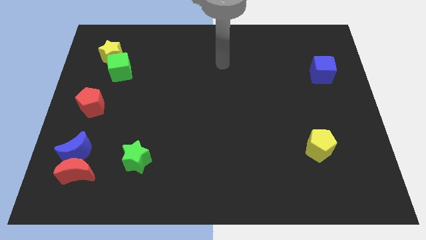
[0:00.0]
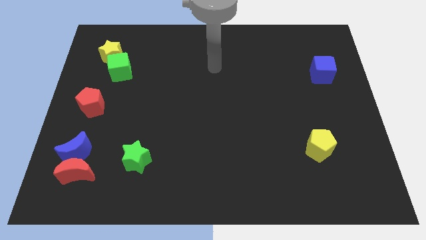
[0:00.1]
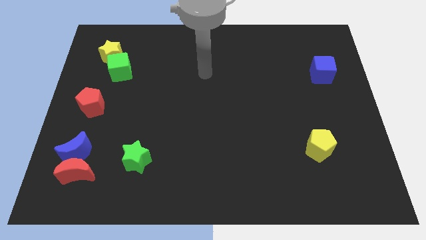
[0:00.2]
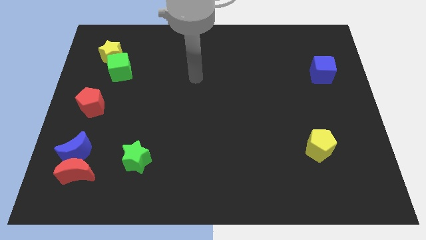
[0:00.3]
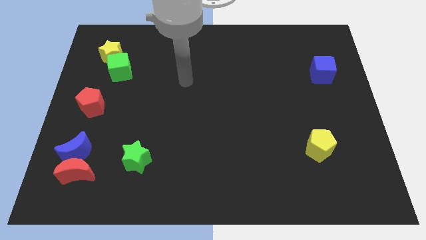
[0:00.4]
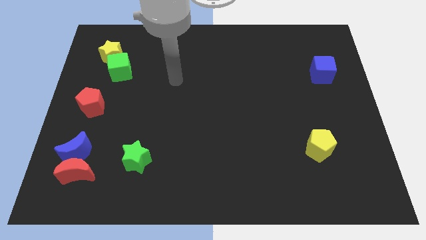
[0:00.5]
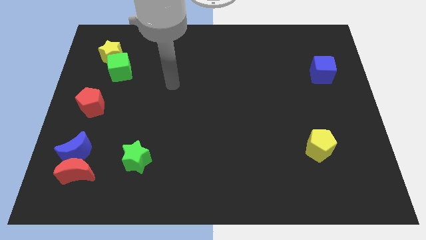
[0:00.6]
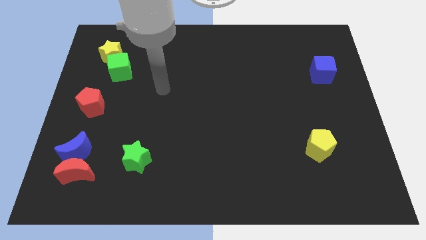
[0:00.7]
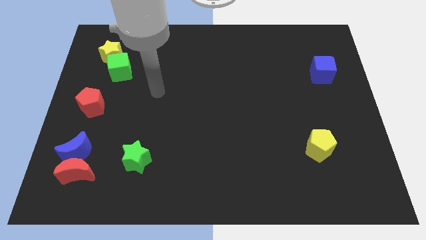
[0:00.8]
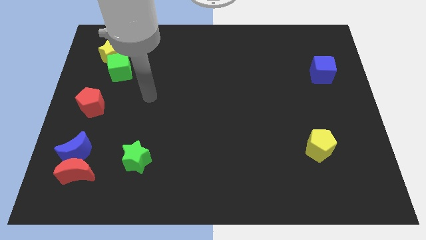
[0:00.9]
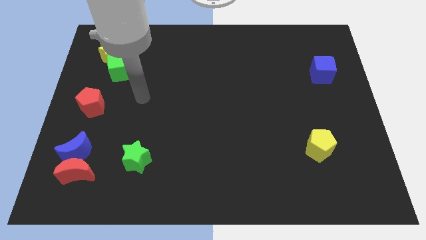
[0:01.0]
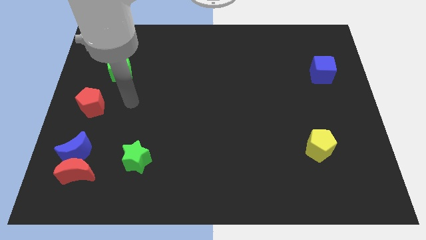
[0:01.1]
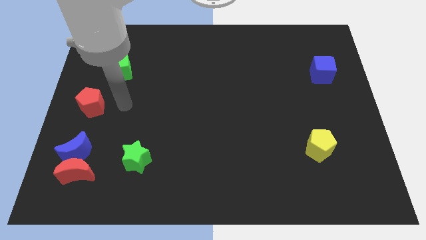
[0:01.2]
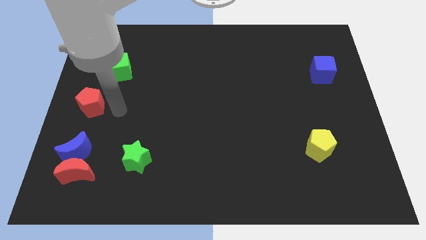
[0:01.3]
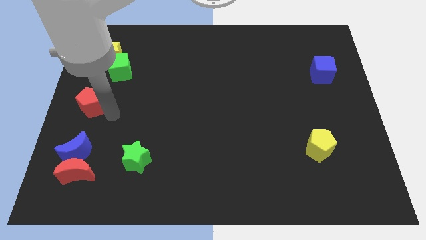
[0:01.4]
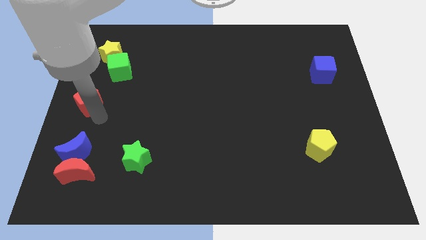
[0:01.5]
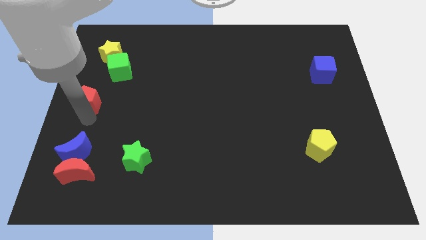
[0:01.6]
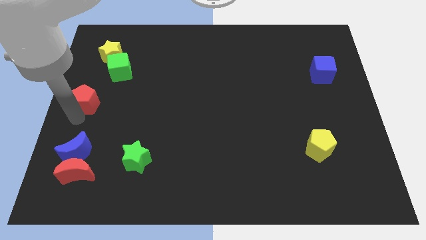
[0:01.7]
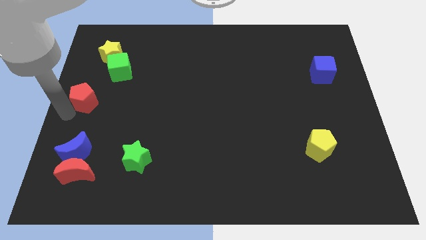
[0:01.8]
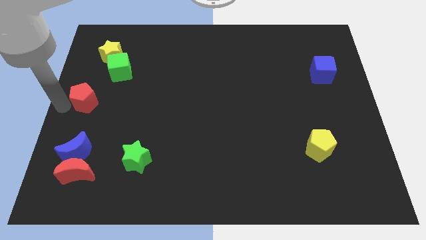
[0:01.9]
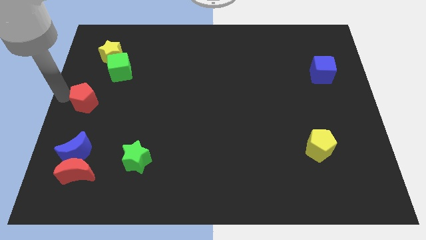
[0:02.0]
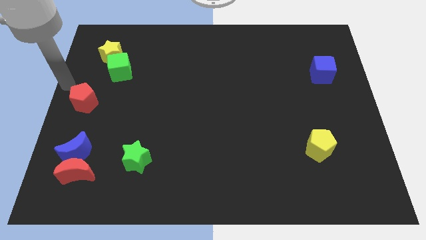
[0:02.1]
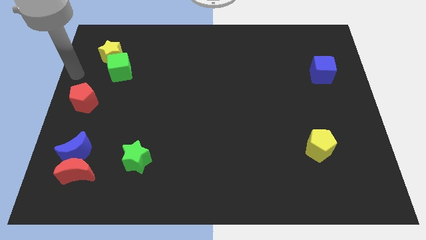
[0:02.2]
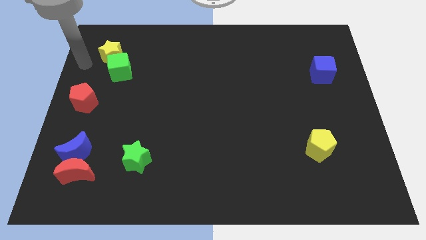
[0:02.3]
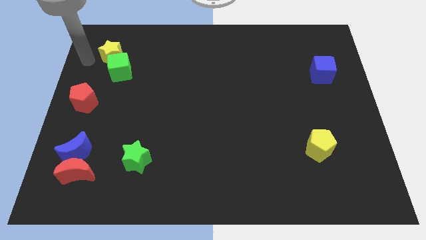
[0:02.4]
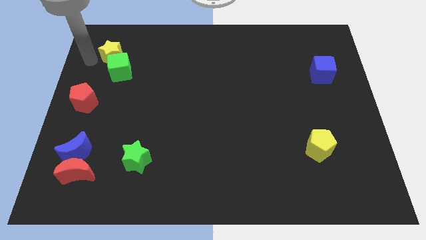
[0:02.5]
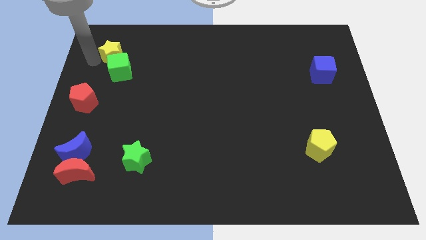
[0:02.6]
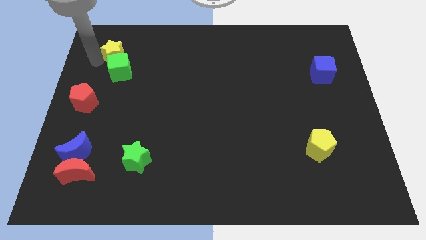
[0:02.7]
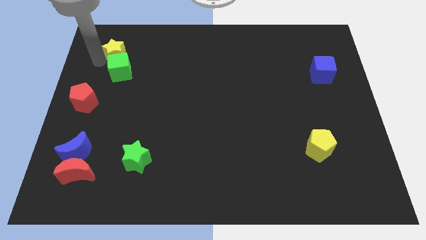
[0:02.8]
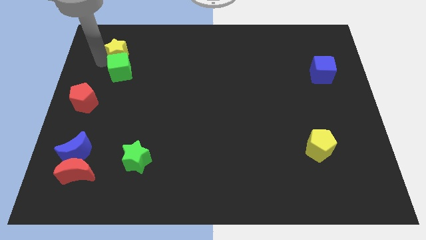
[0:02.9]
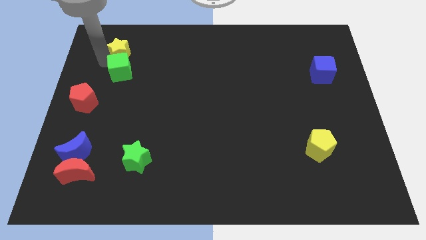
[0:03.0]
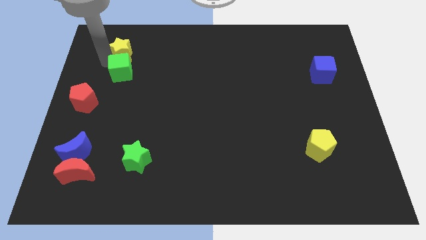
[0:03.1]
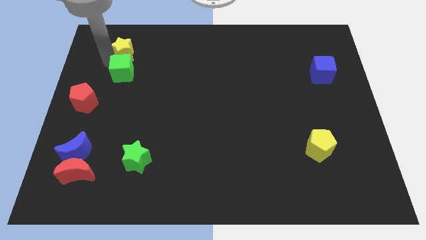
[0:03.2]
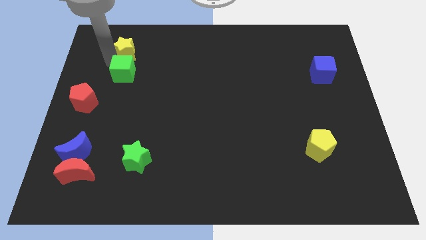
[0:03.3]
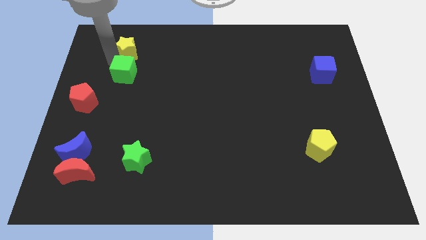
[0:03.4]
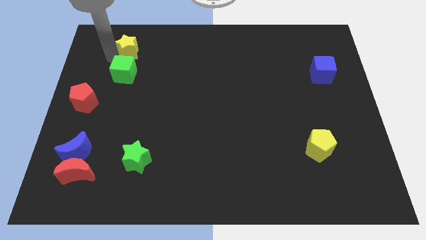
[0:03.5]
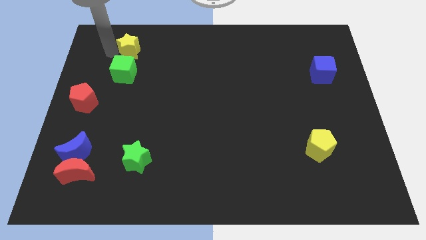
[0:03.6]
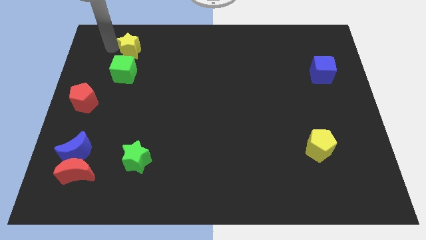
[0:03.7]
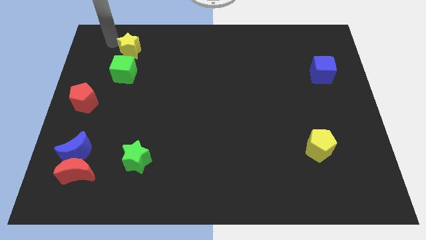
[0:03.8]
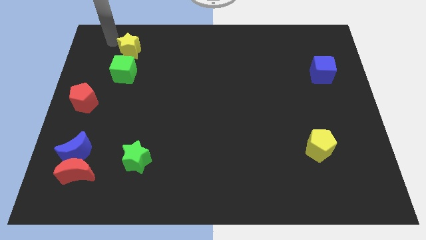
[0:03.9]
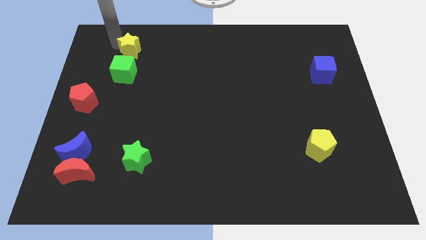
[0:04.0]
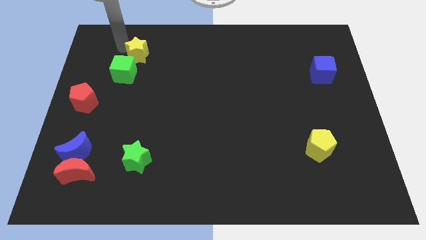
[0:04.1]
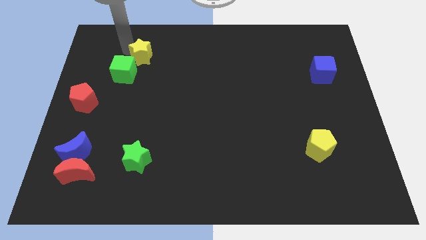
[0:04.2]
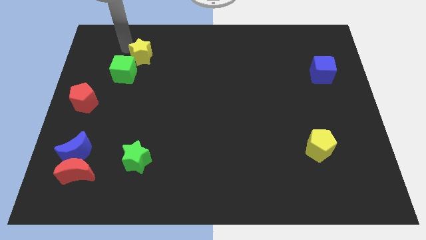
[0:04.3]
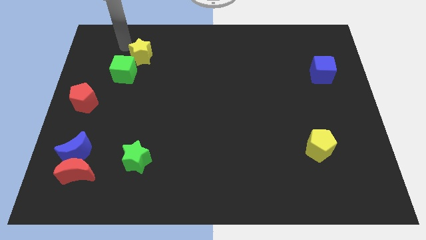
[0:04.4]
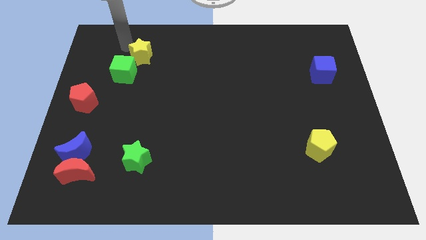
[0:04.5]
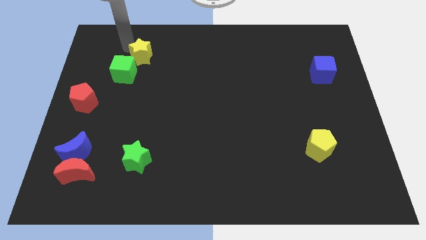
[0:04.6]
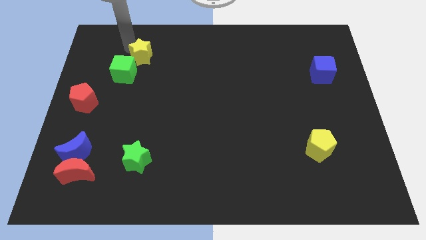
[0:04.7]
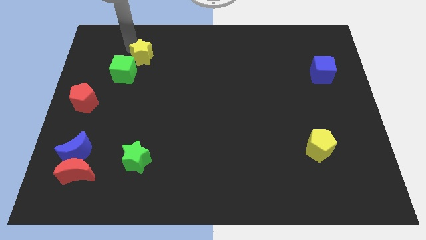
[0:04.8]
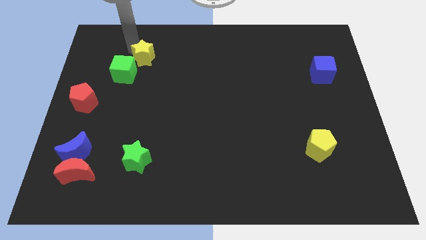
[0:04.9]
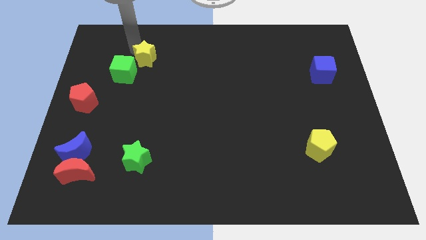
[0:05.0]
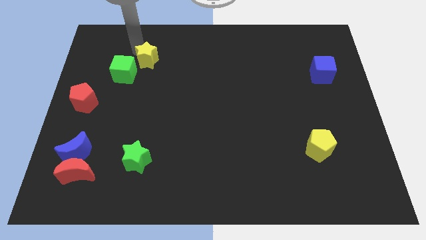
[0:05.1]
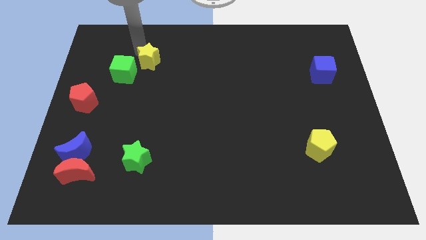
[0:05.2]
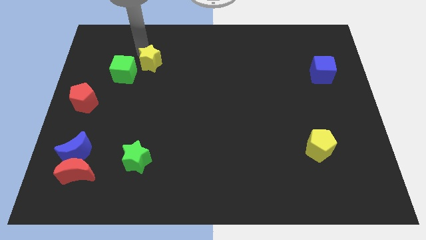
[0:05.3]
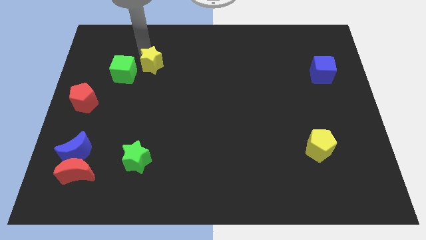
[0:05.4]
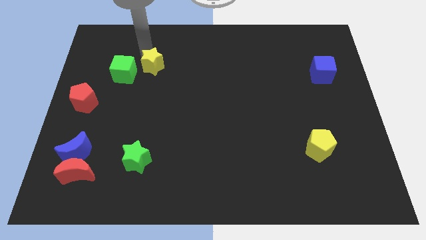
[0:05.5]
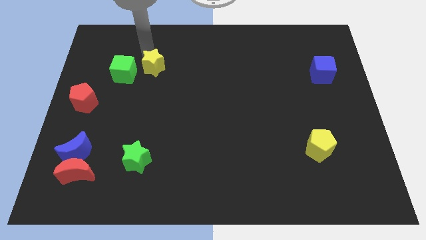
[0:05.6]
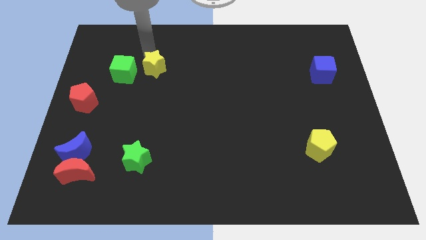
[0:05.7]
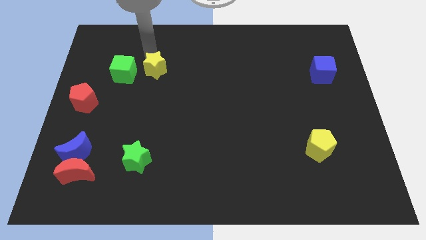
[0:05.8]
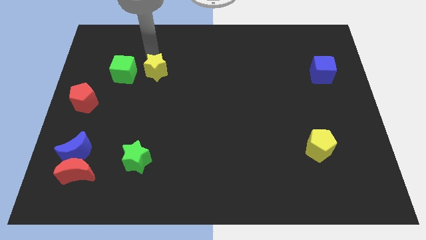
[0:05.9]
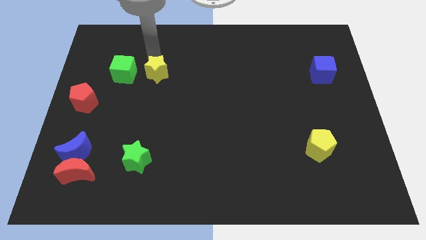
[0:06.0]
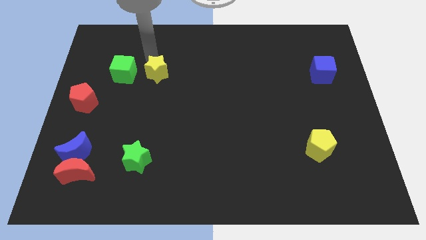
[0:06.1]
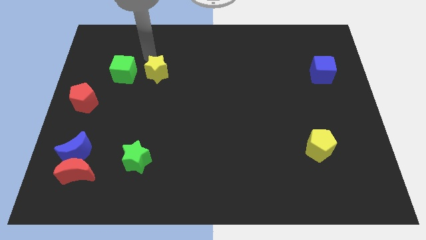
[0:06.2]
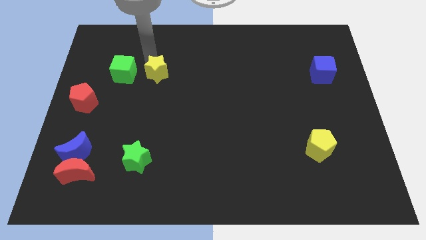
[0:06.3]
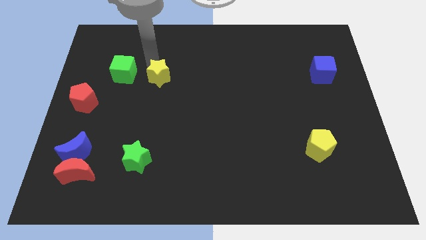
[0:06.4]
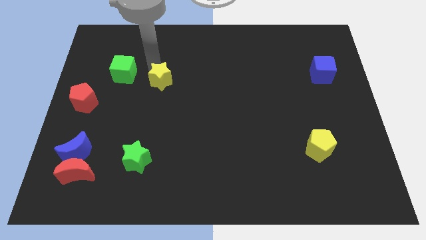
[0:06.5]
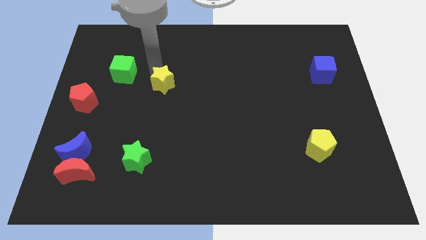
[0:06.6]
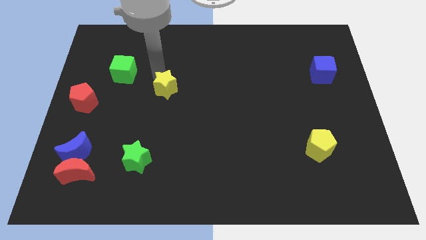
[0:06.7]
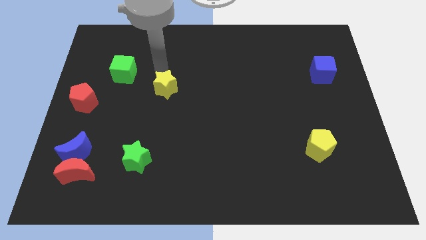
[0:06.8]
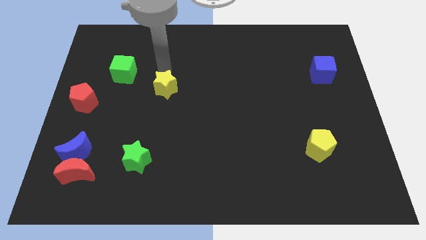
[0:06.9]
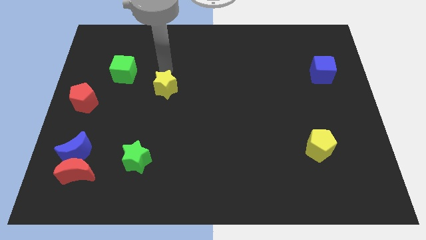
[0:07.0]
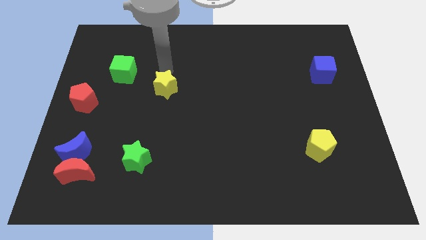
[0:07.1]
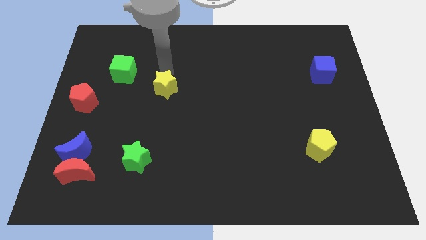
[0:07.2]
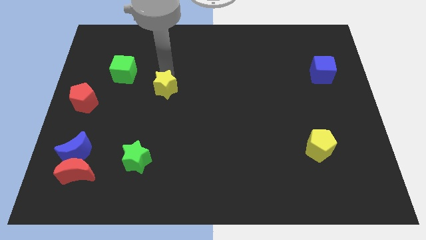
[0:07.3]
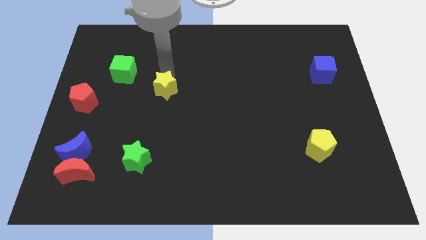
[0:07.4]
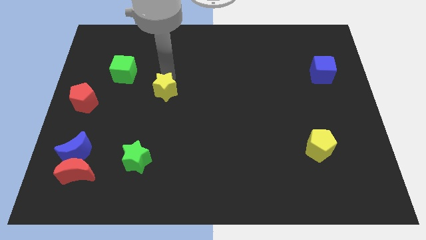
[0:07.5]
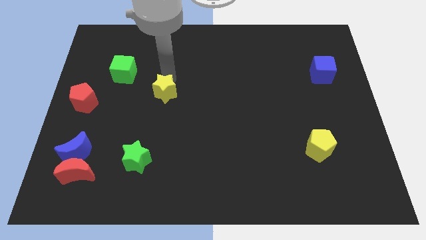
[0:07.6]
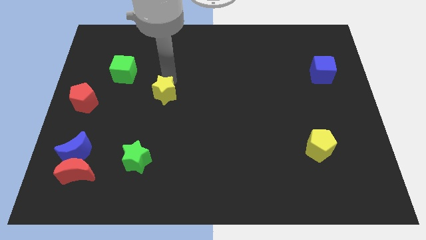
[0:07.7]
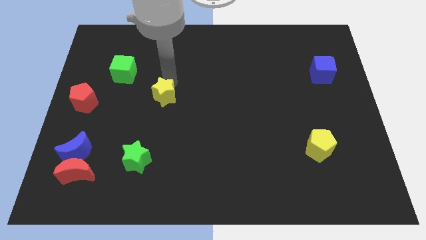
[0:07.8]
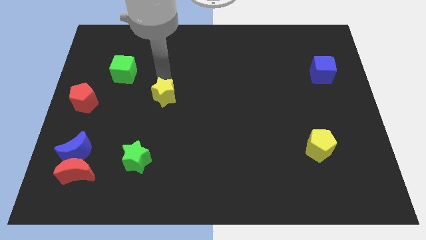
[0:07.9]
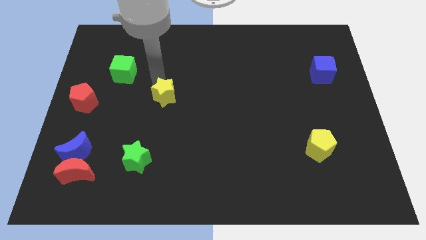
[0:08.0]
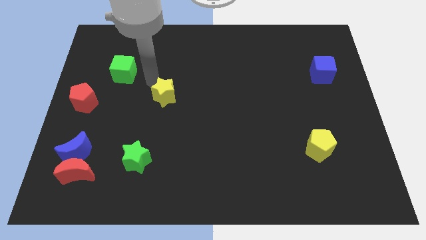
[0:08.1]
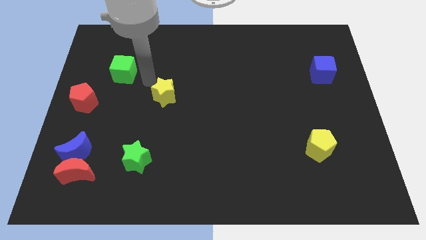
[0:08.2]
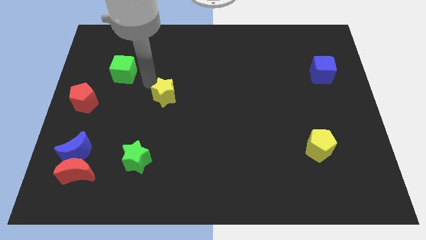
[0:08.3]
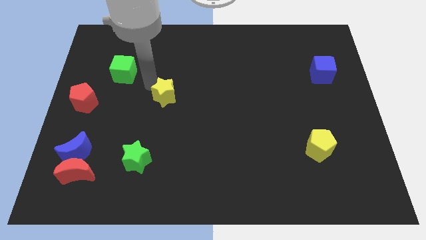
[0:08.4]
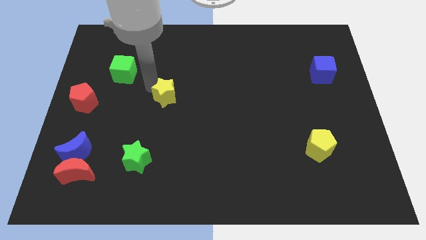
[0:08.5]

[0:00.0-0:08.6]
slide the yellow star diagonally downwards and right
